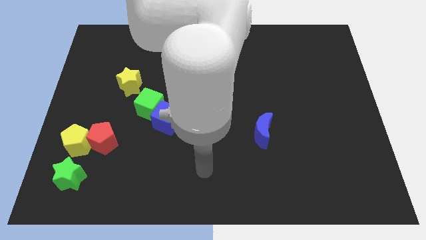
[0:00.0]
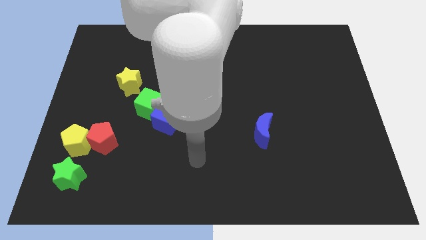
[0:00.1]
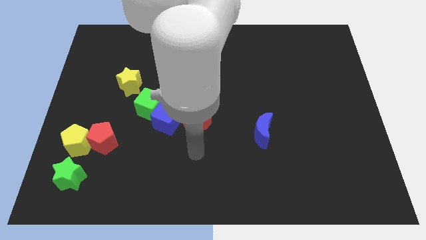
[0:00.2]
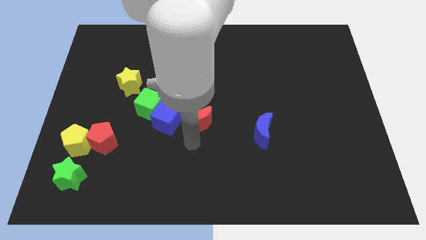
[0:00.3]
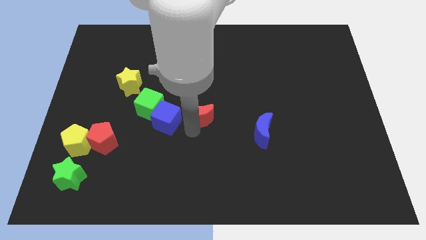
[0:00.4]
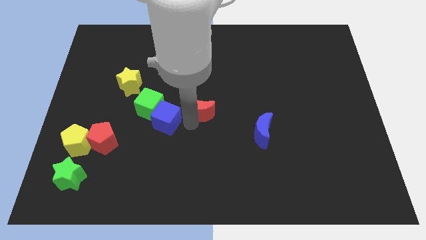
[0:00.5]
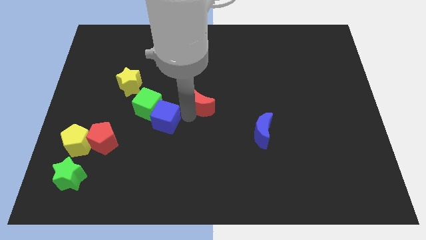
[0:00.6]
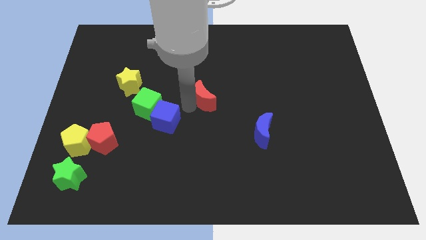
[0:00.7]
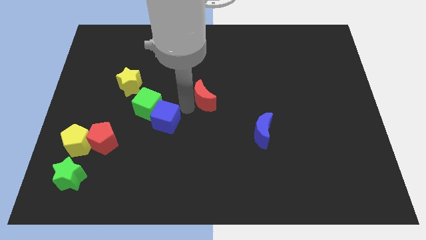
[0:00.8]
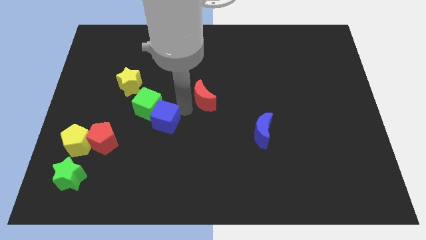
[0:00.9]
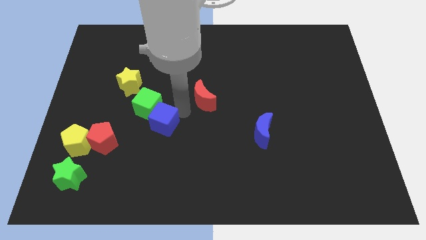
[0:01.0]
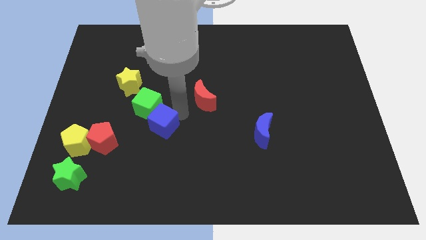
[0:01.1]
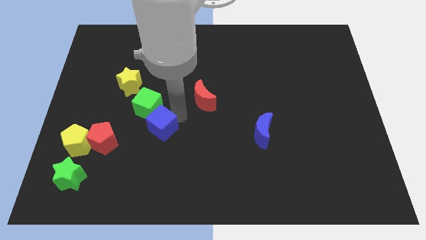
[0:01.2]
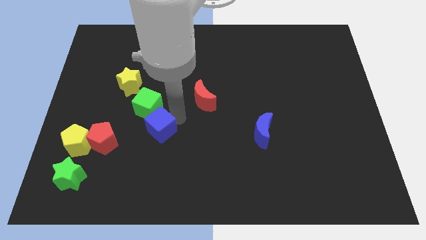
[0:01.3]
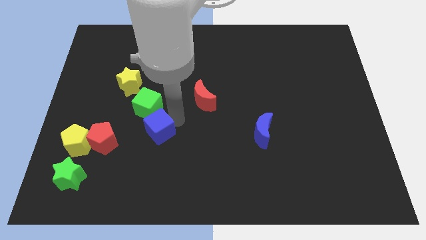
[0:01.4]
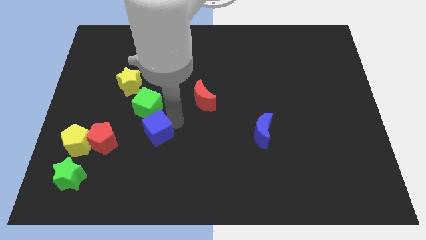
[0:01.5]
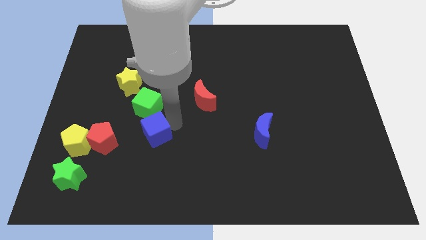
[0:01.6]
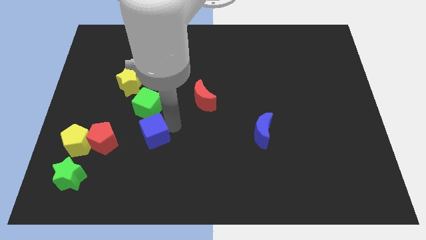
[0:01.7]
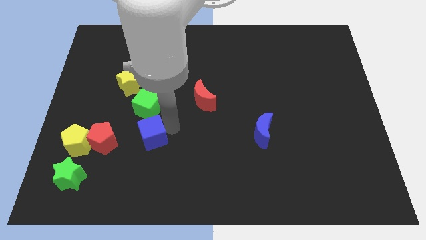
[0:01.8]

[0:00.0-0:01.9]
move the blue cube away from the green cube and red moon

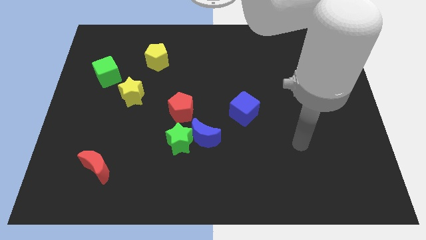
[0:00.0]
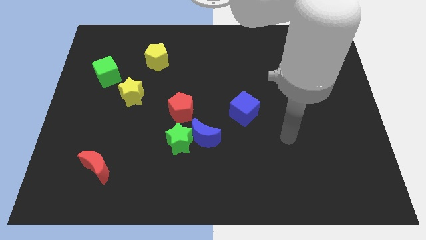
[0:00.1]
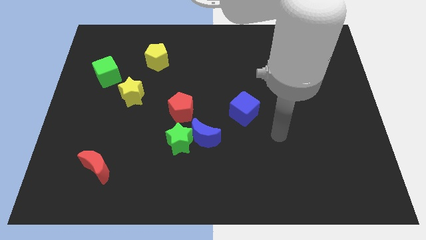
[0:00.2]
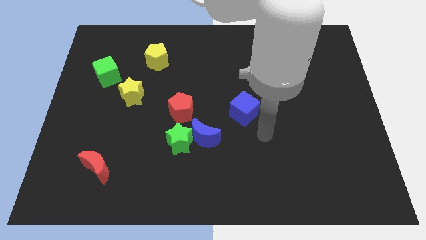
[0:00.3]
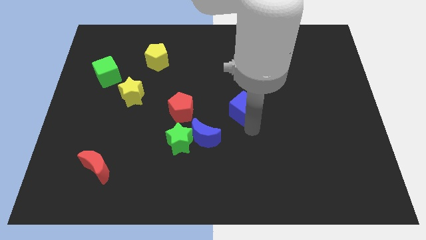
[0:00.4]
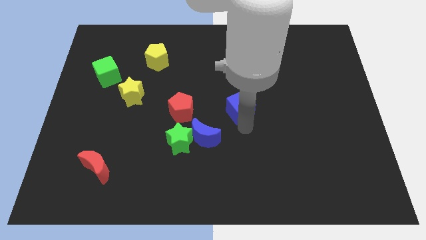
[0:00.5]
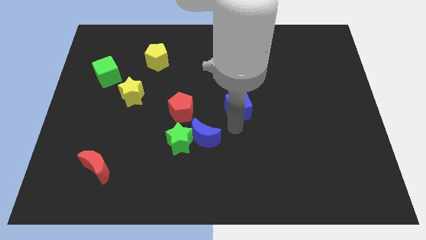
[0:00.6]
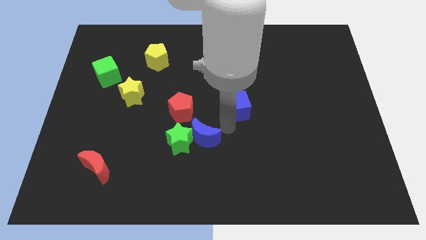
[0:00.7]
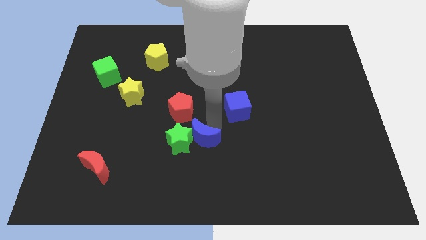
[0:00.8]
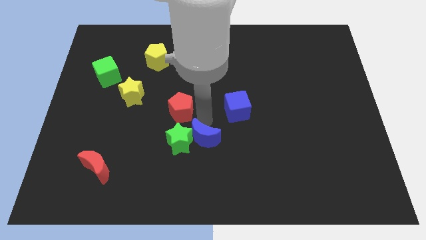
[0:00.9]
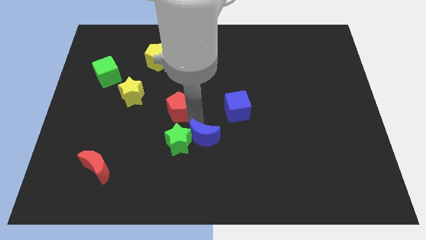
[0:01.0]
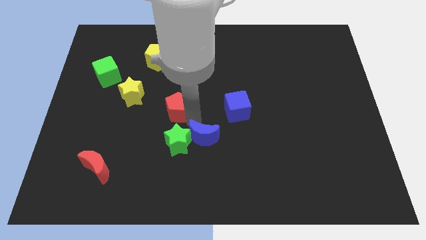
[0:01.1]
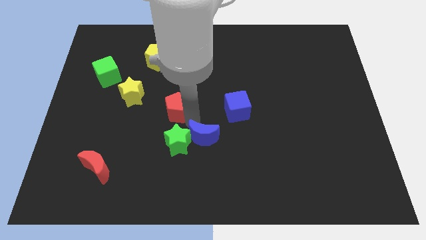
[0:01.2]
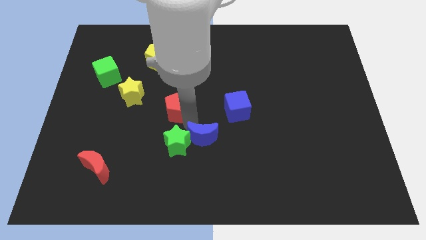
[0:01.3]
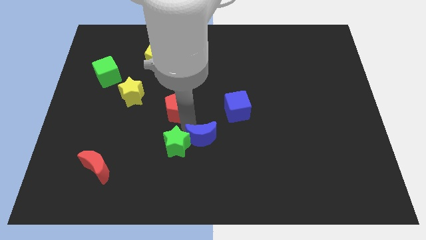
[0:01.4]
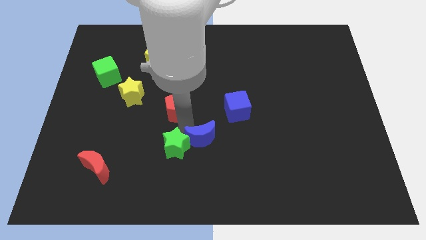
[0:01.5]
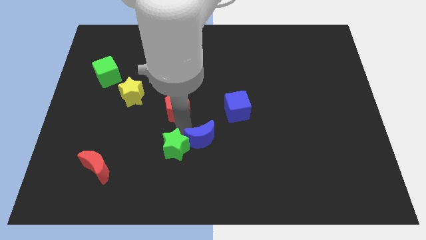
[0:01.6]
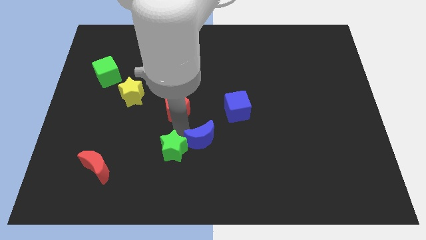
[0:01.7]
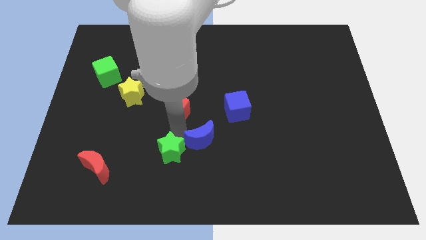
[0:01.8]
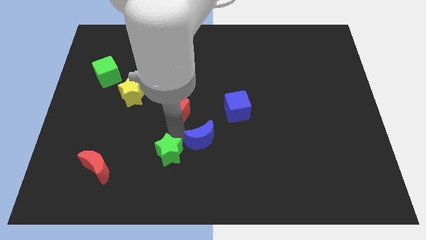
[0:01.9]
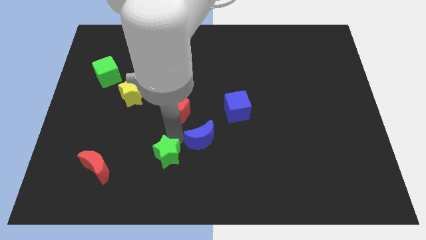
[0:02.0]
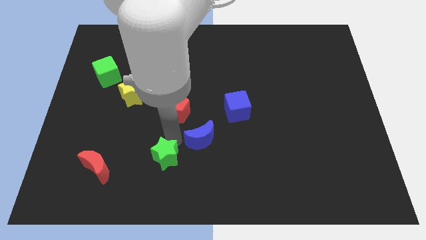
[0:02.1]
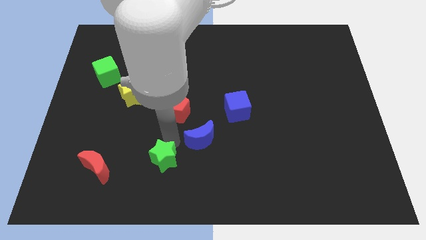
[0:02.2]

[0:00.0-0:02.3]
move the green star away from the blue moon and red pentagon

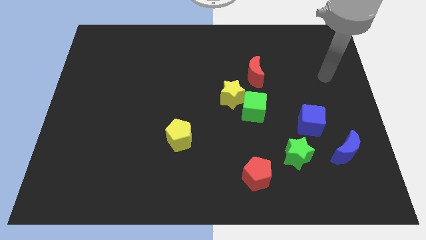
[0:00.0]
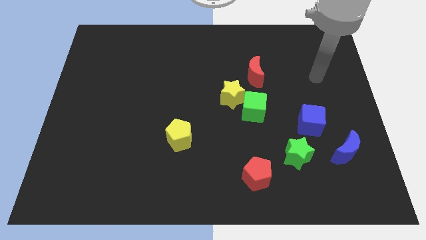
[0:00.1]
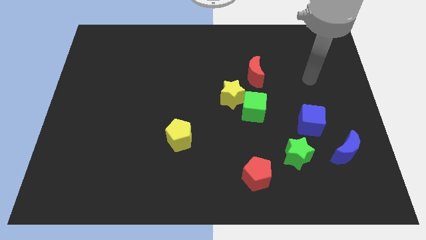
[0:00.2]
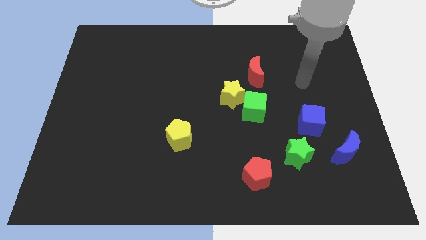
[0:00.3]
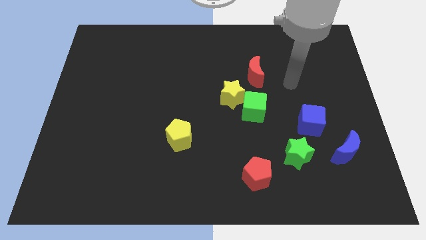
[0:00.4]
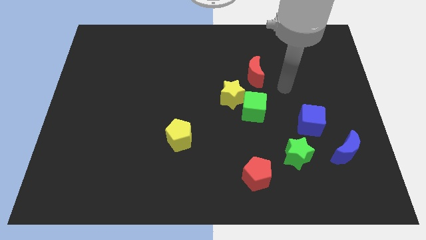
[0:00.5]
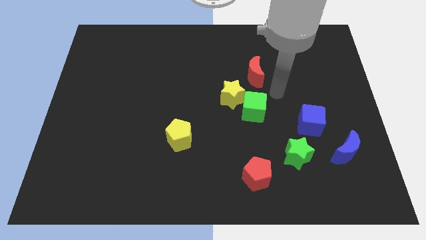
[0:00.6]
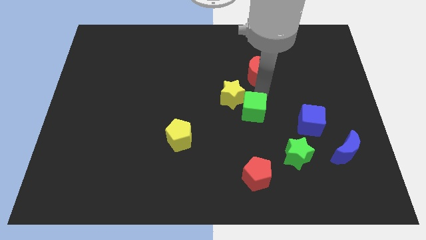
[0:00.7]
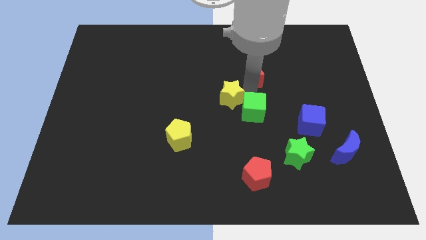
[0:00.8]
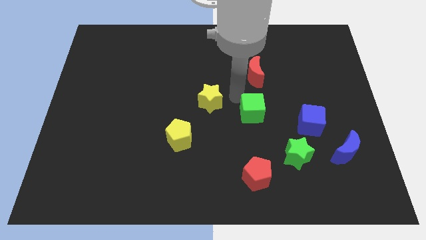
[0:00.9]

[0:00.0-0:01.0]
separate the green cube from the yellow star

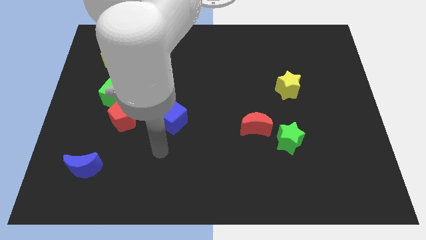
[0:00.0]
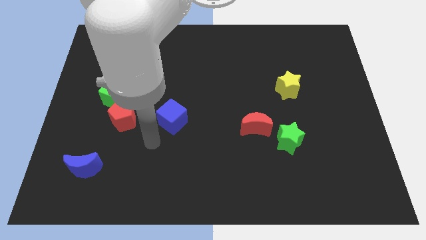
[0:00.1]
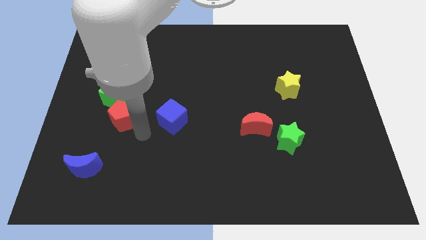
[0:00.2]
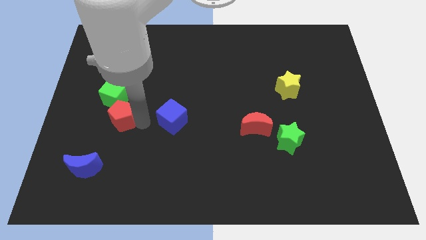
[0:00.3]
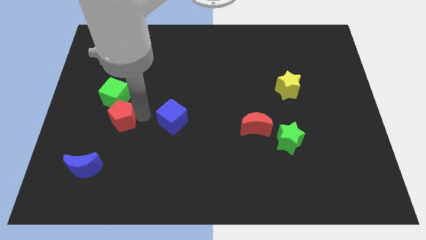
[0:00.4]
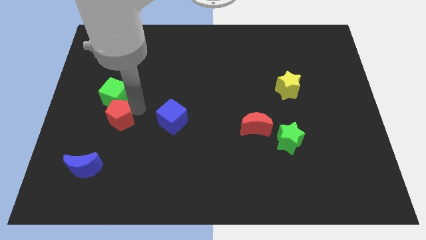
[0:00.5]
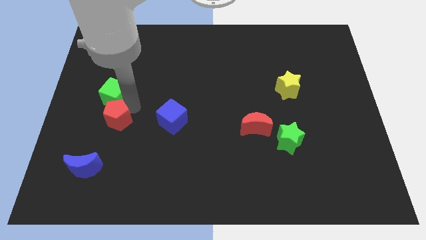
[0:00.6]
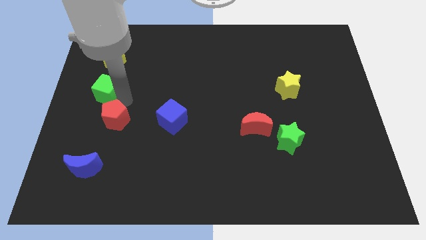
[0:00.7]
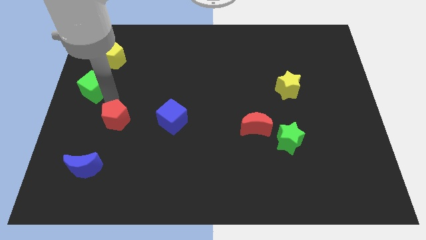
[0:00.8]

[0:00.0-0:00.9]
separate the red pentagon from the green cube

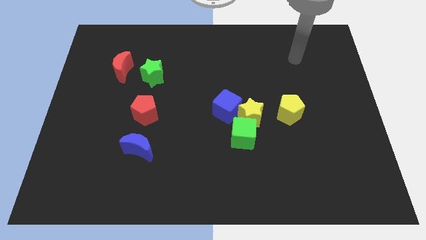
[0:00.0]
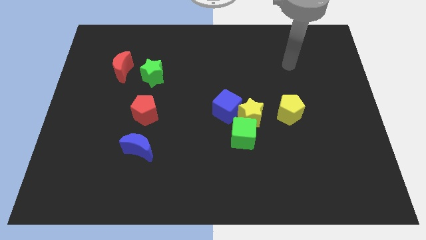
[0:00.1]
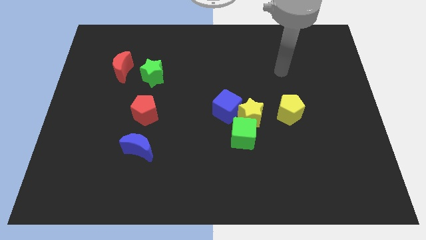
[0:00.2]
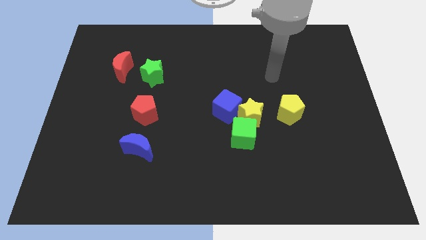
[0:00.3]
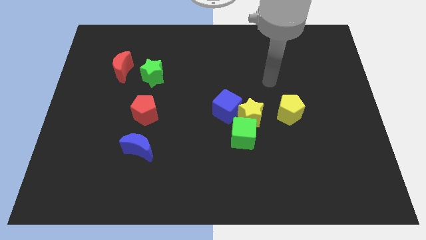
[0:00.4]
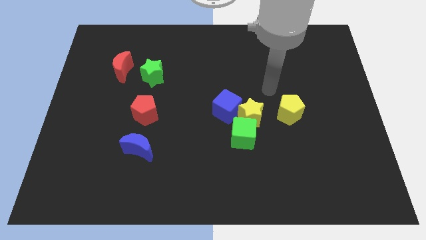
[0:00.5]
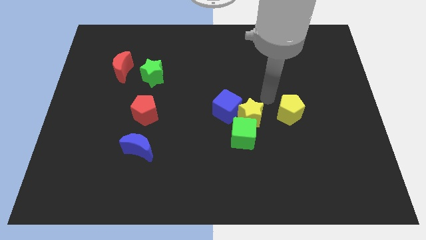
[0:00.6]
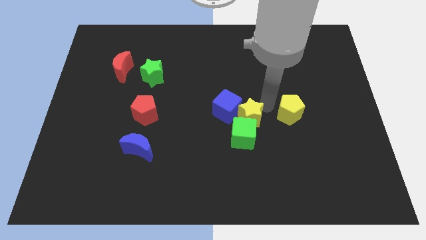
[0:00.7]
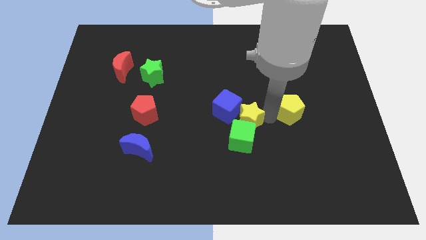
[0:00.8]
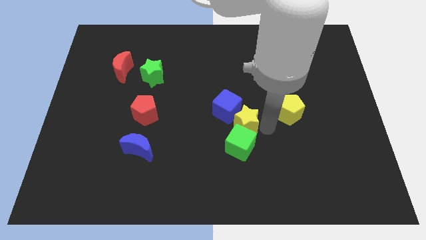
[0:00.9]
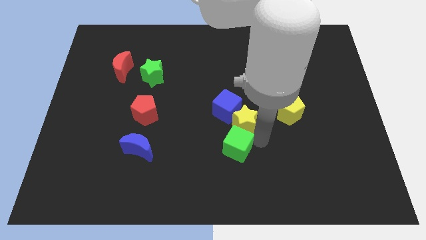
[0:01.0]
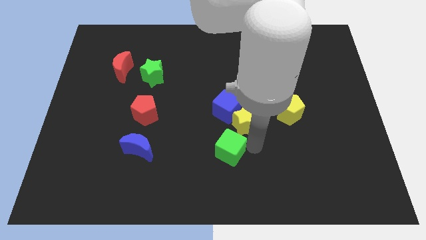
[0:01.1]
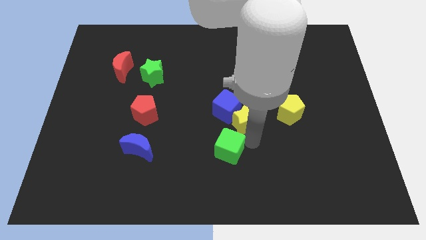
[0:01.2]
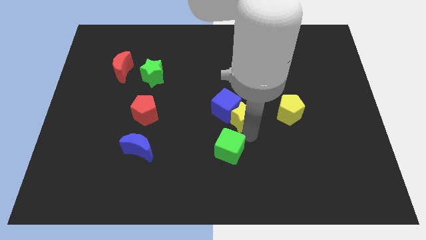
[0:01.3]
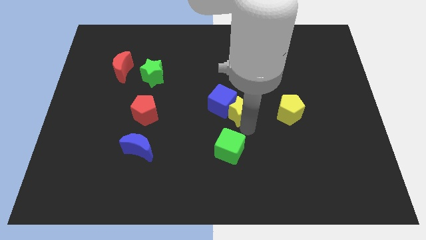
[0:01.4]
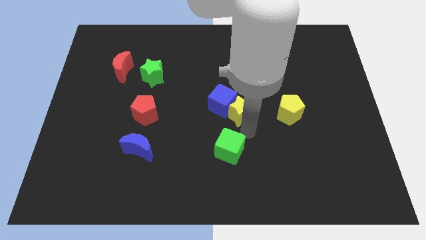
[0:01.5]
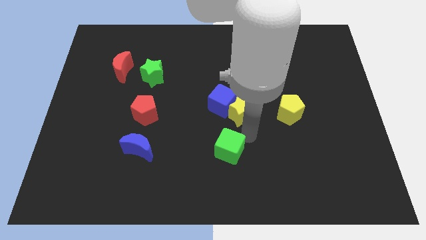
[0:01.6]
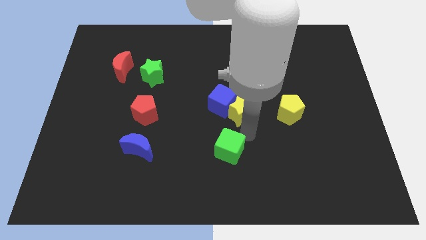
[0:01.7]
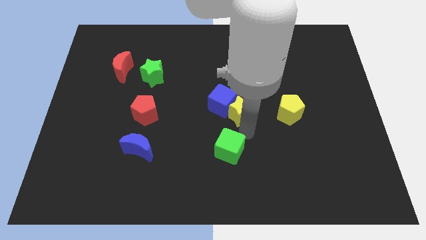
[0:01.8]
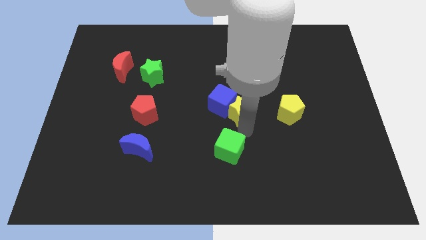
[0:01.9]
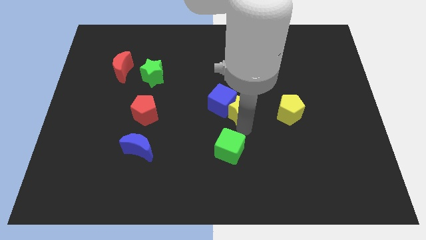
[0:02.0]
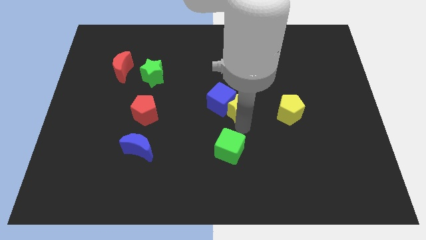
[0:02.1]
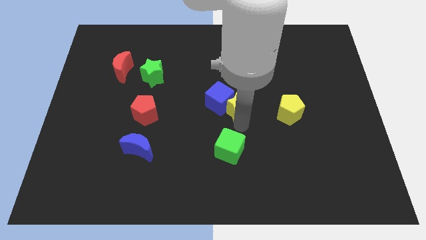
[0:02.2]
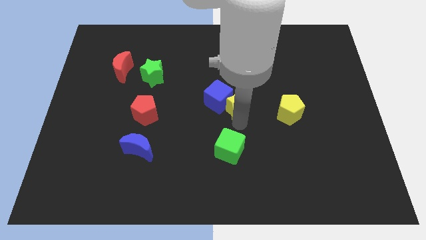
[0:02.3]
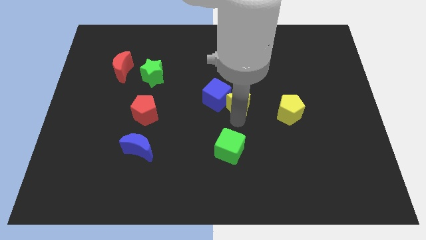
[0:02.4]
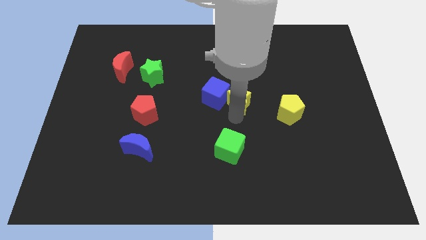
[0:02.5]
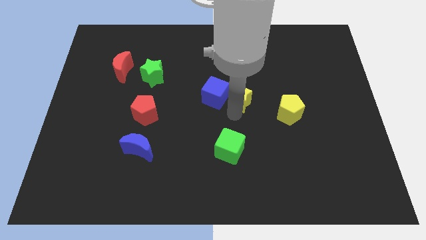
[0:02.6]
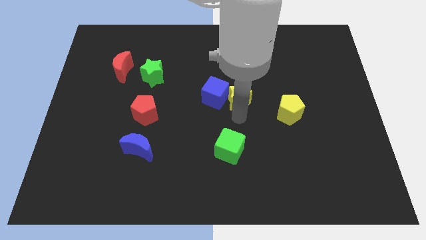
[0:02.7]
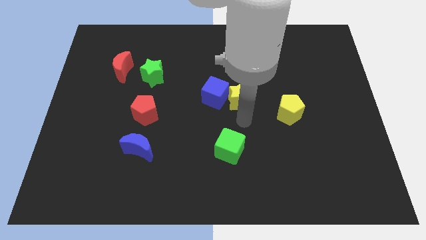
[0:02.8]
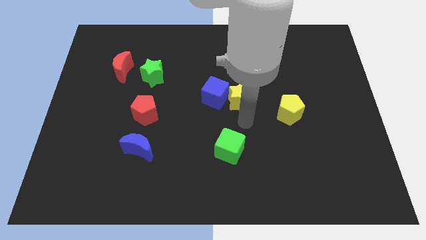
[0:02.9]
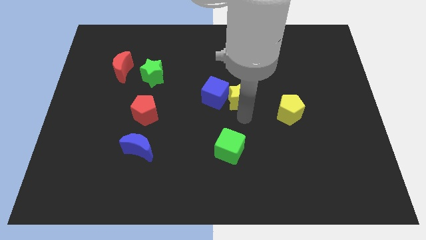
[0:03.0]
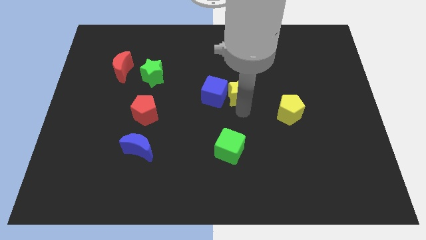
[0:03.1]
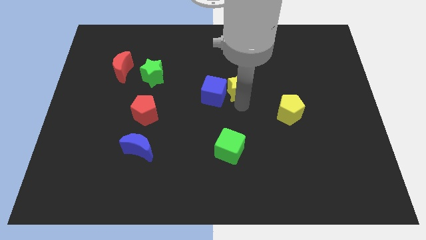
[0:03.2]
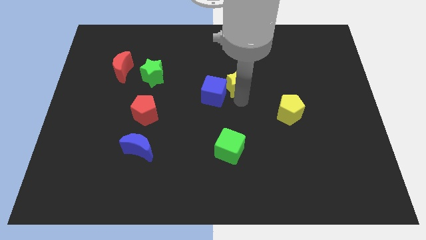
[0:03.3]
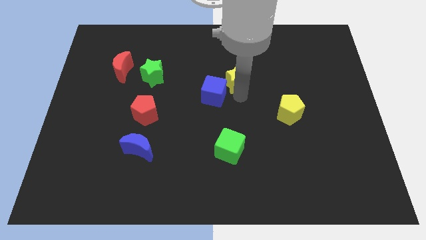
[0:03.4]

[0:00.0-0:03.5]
separate the yellow star from the blue cube, green cube, and yellow pentagon
